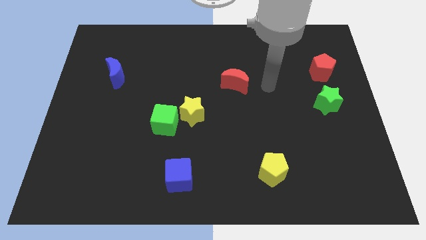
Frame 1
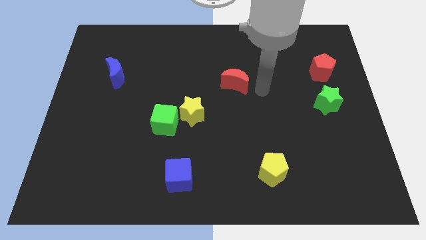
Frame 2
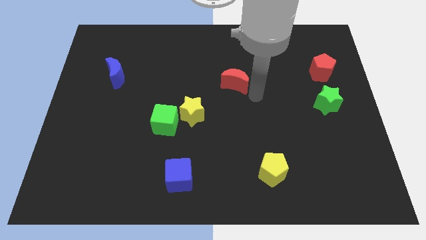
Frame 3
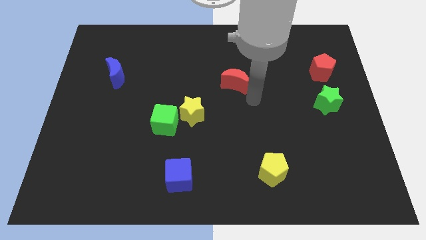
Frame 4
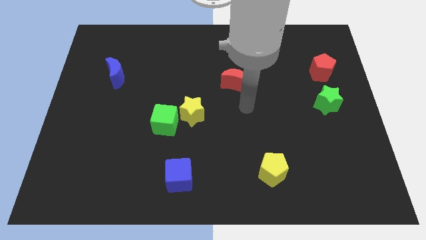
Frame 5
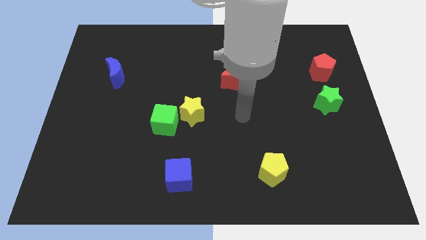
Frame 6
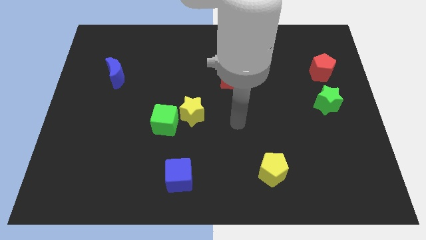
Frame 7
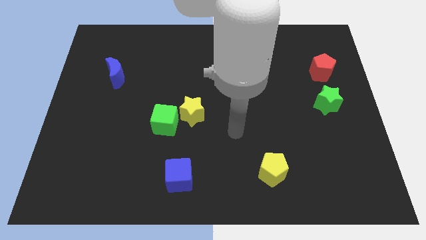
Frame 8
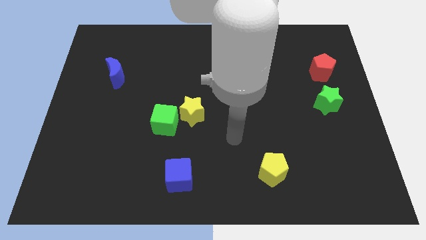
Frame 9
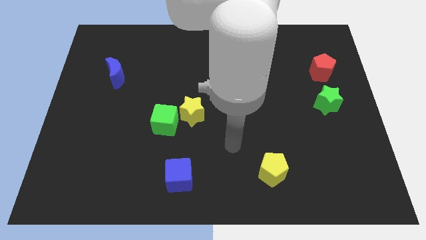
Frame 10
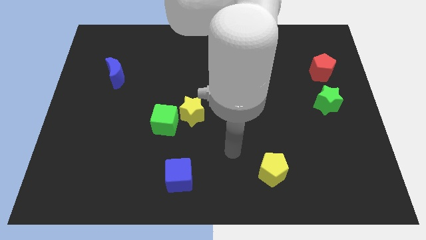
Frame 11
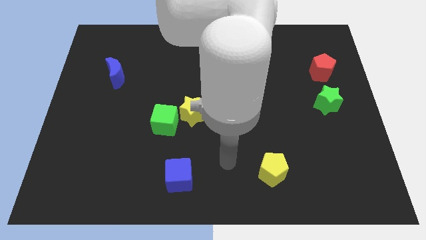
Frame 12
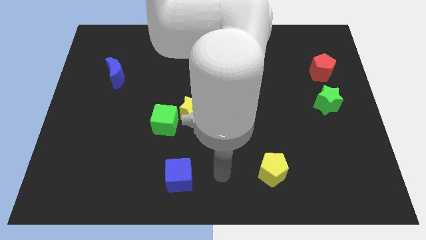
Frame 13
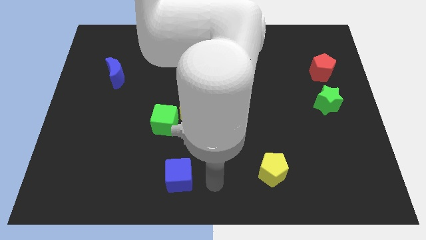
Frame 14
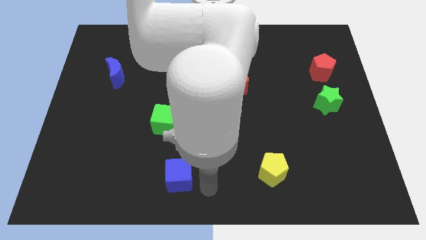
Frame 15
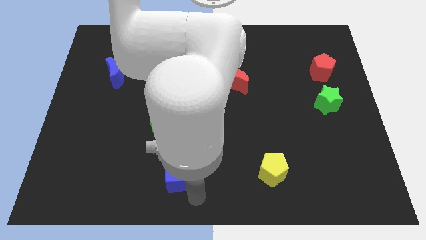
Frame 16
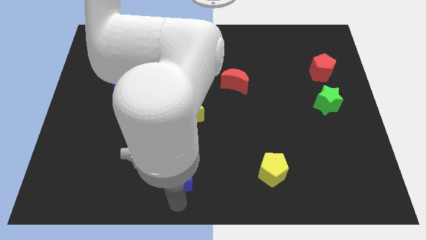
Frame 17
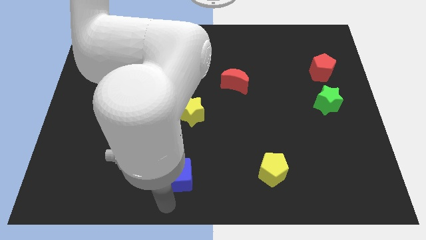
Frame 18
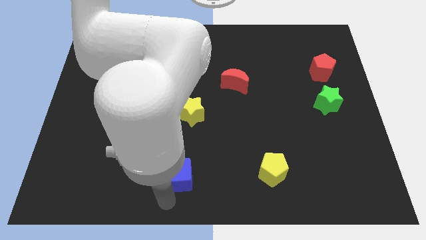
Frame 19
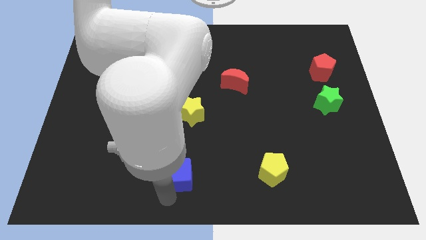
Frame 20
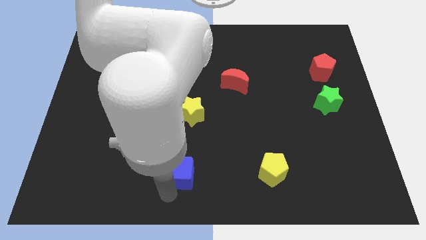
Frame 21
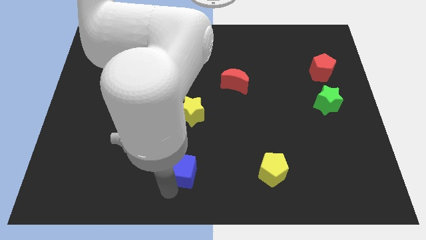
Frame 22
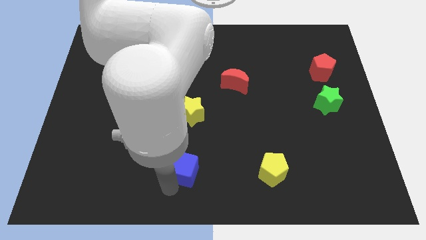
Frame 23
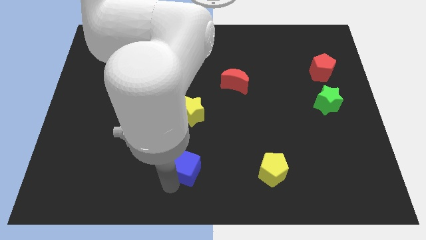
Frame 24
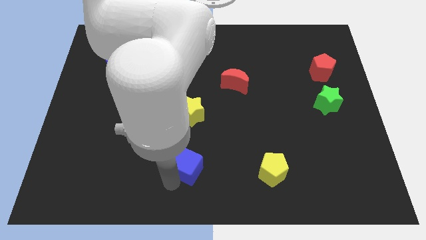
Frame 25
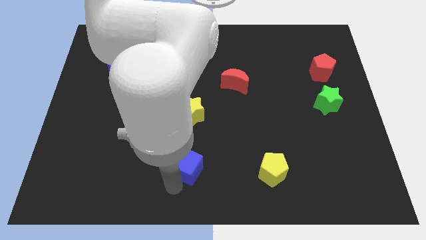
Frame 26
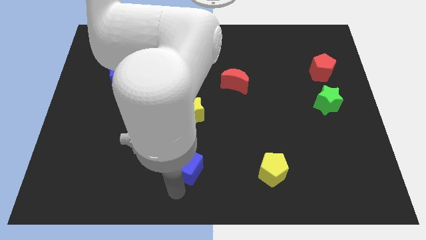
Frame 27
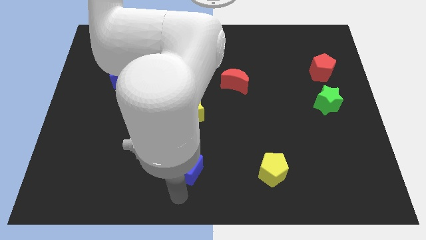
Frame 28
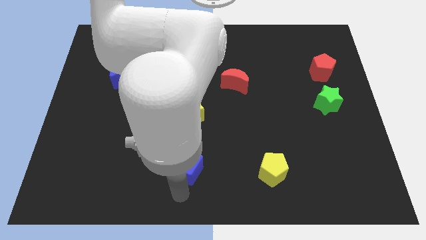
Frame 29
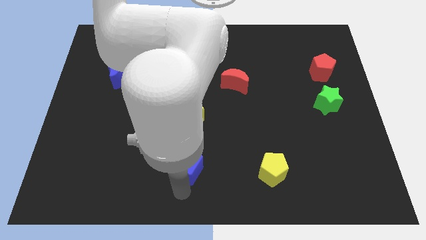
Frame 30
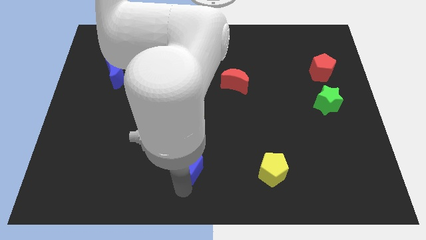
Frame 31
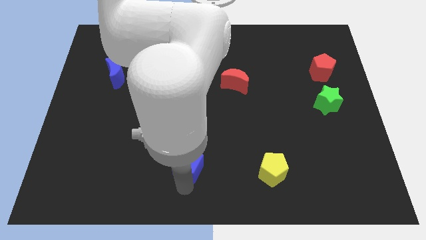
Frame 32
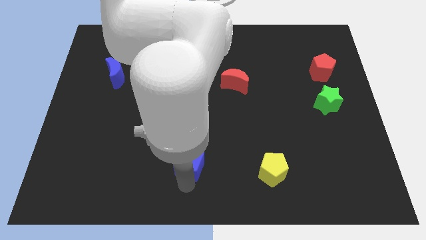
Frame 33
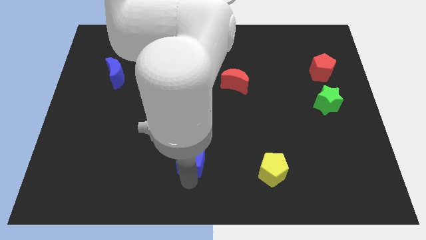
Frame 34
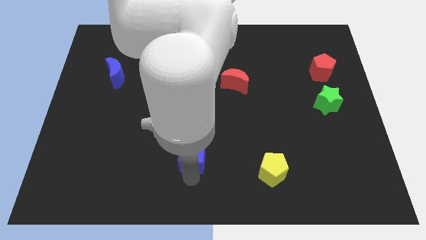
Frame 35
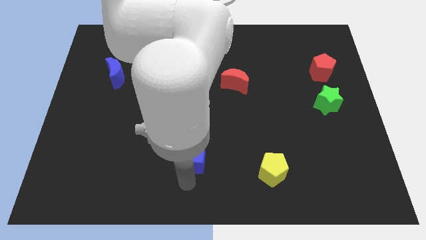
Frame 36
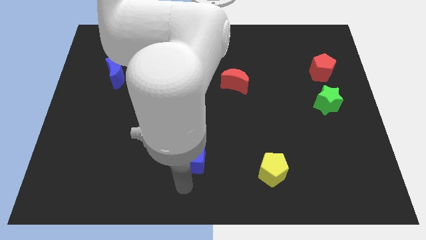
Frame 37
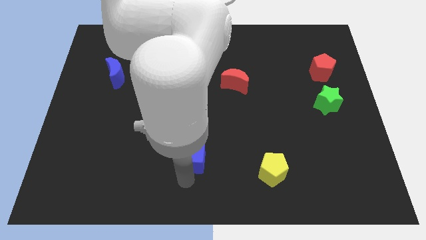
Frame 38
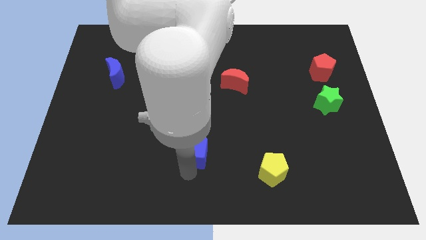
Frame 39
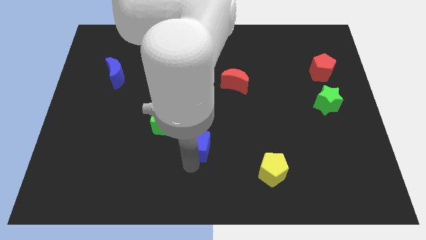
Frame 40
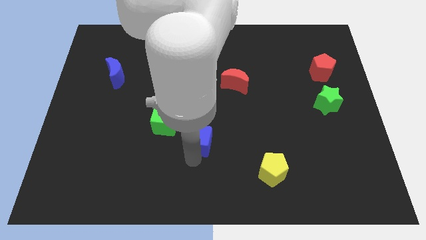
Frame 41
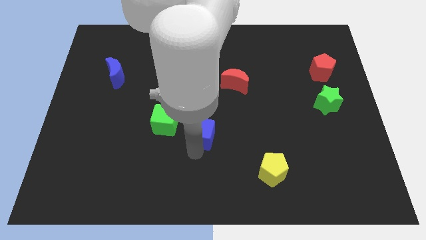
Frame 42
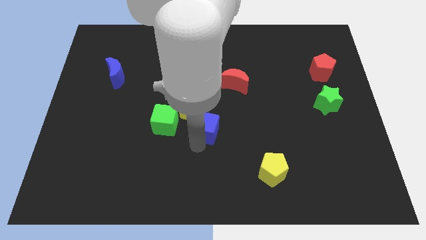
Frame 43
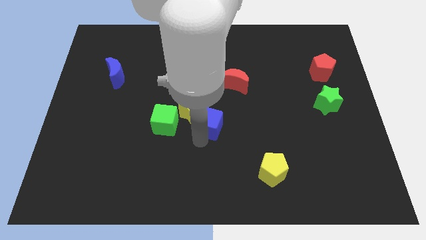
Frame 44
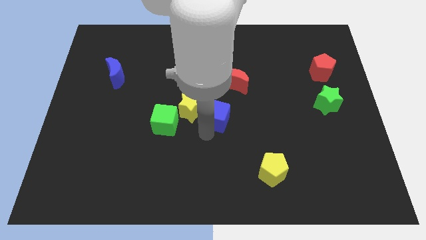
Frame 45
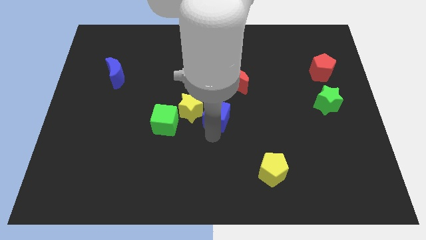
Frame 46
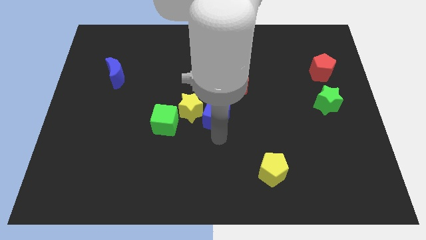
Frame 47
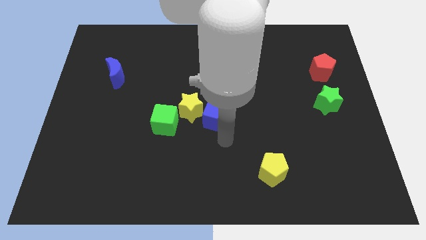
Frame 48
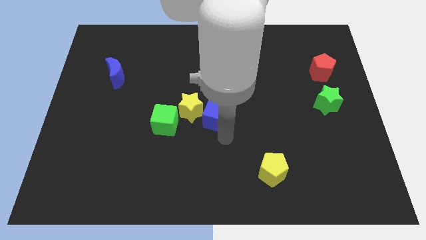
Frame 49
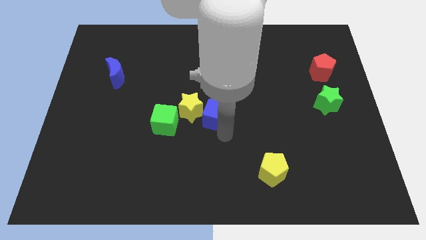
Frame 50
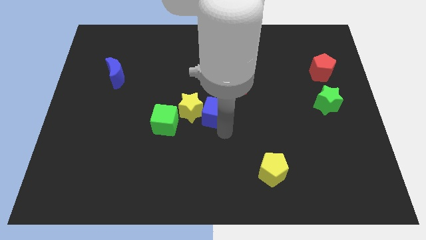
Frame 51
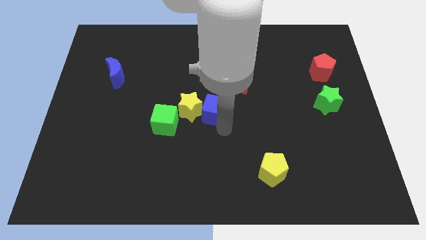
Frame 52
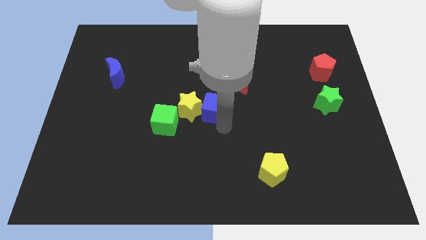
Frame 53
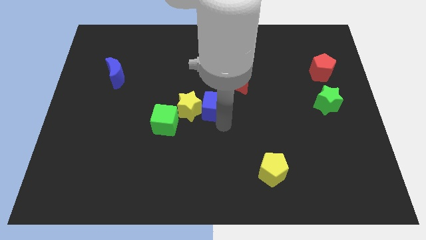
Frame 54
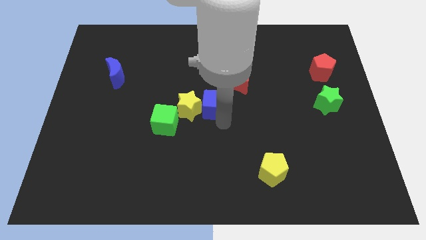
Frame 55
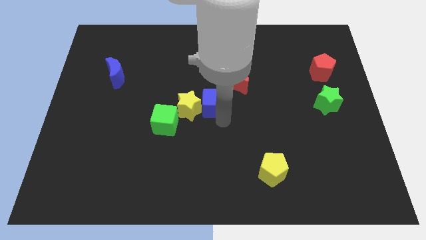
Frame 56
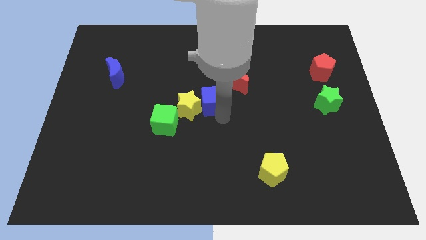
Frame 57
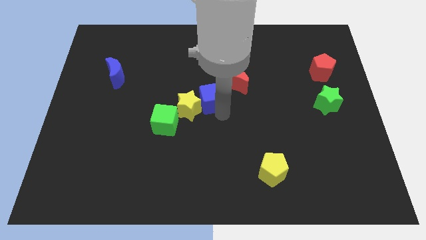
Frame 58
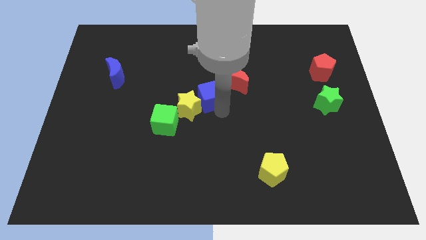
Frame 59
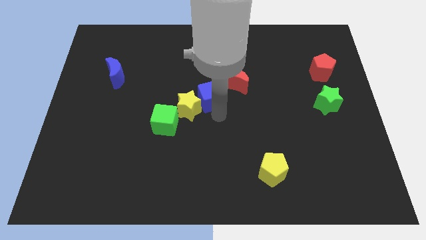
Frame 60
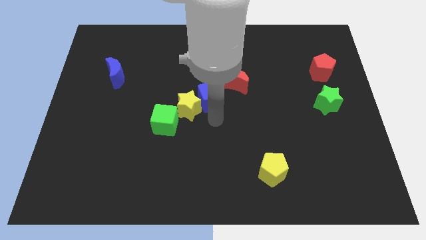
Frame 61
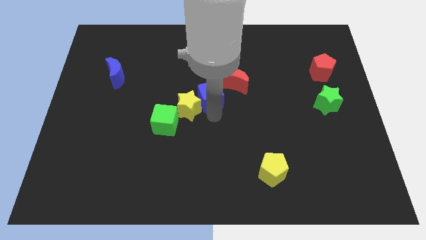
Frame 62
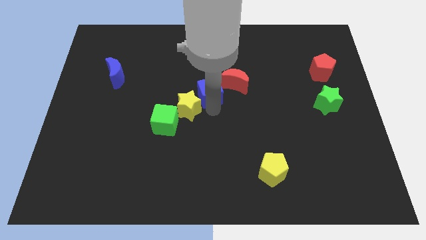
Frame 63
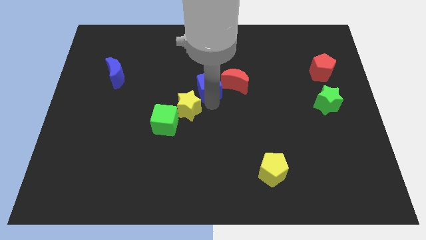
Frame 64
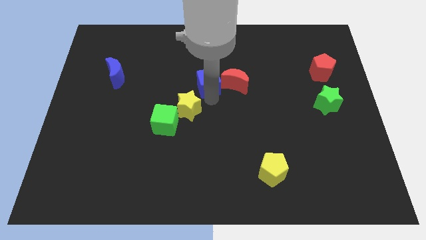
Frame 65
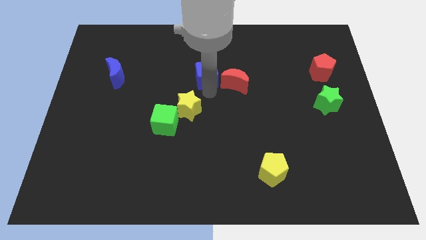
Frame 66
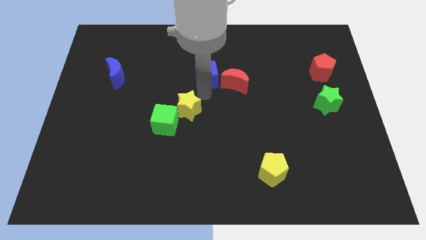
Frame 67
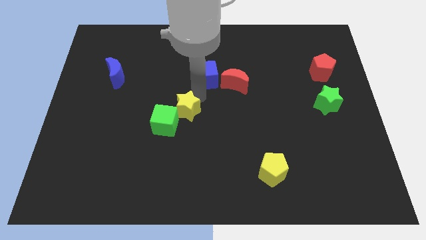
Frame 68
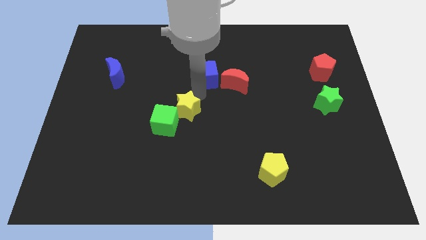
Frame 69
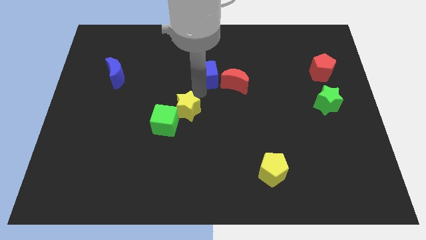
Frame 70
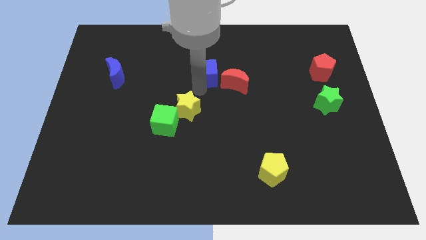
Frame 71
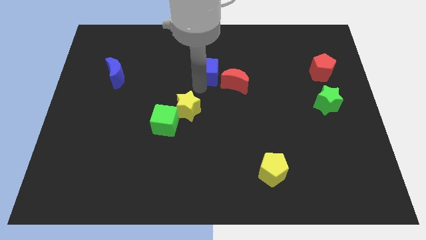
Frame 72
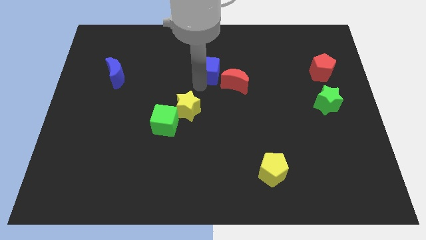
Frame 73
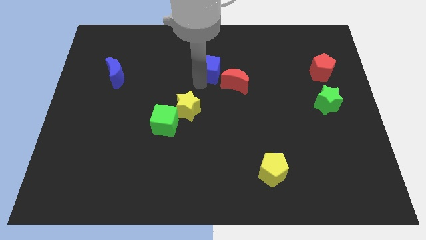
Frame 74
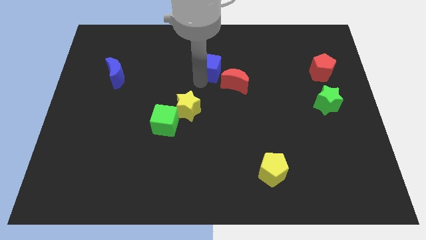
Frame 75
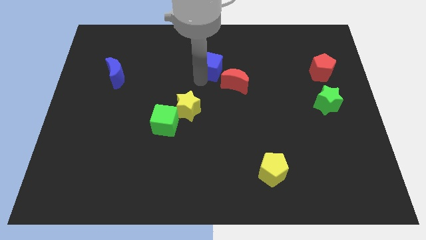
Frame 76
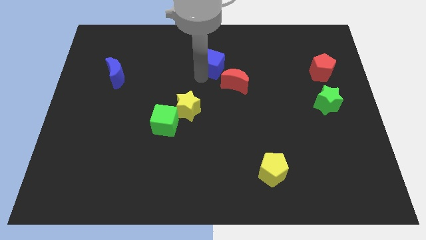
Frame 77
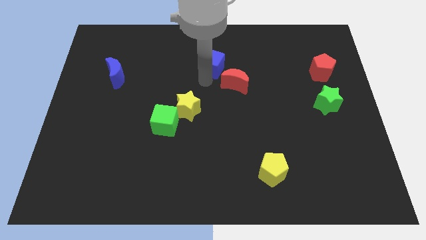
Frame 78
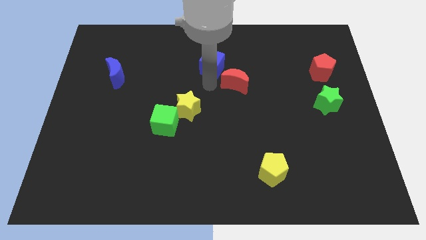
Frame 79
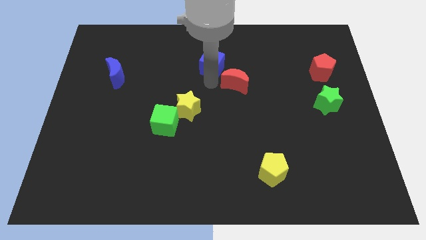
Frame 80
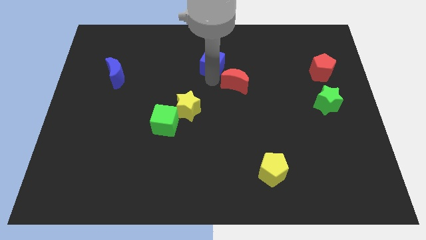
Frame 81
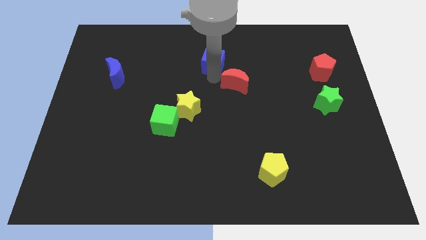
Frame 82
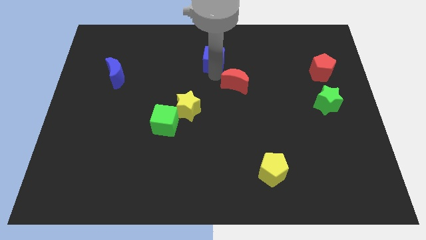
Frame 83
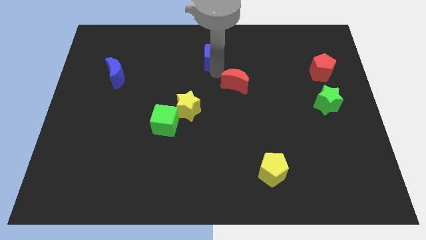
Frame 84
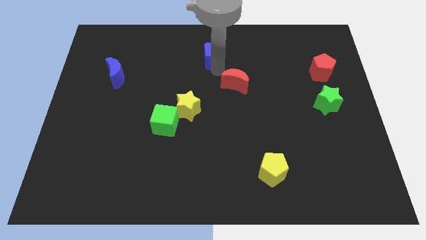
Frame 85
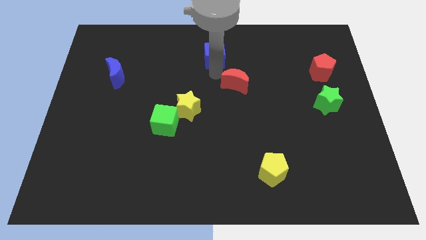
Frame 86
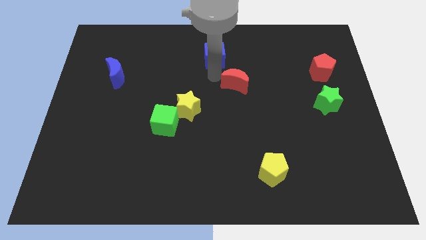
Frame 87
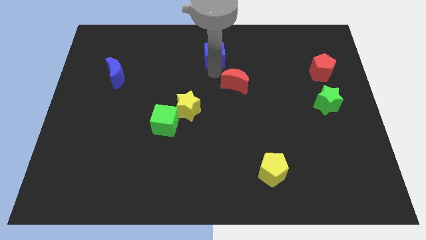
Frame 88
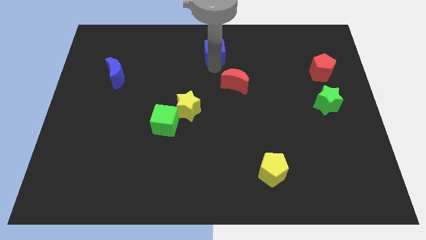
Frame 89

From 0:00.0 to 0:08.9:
slide the blue cube to the top side
